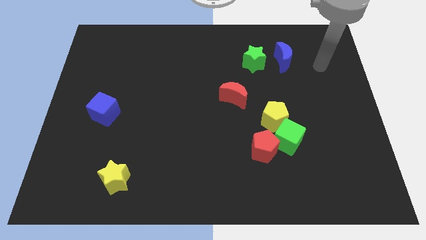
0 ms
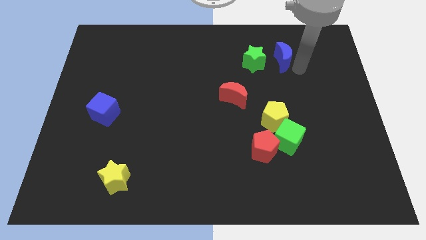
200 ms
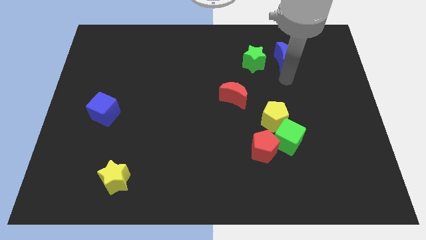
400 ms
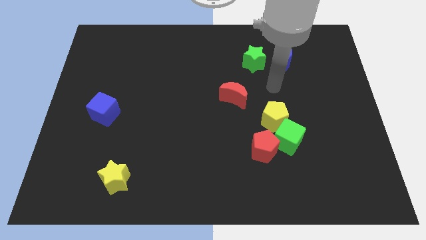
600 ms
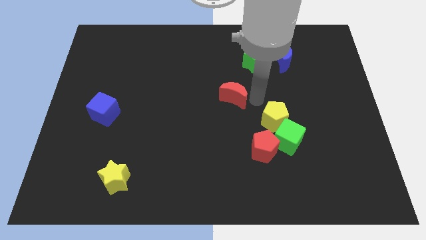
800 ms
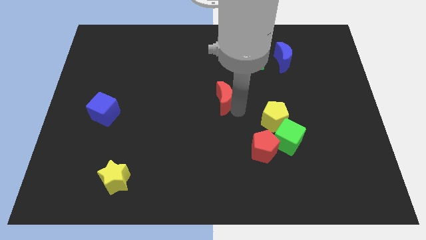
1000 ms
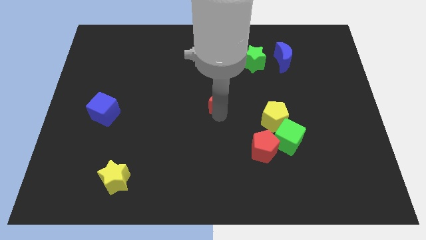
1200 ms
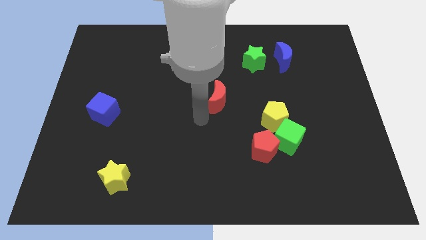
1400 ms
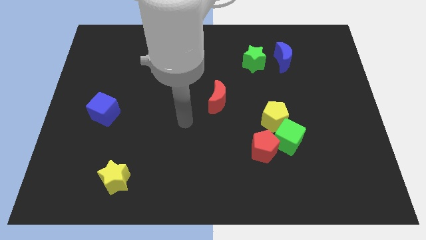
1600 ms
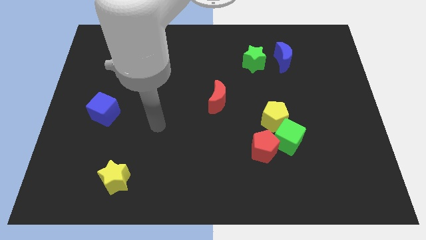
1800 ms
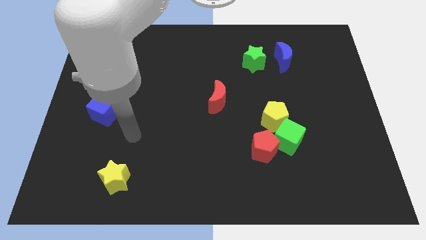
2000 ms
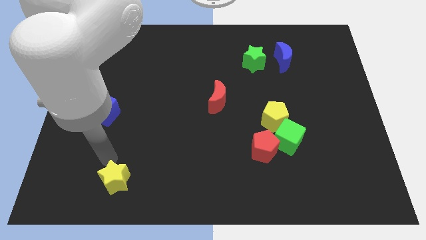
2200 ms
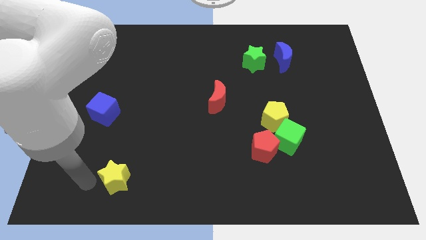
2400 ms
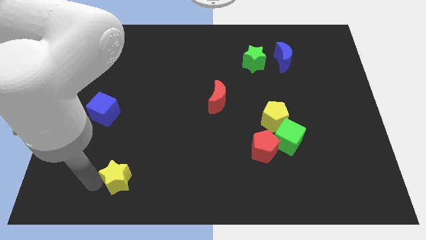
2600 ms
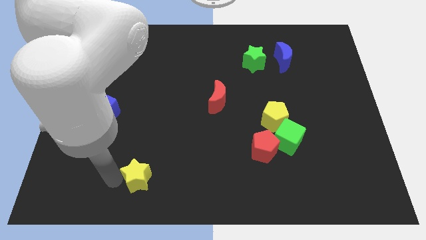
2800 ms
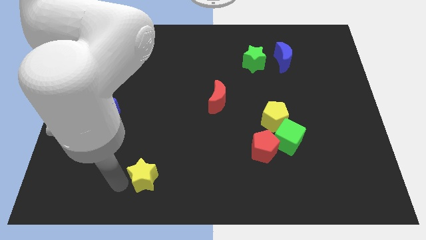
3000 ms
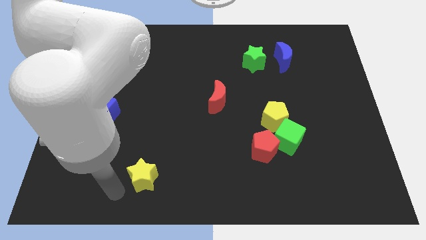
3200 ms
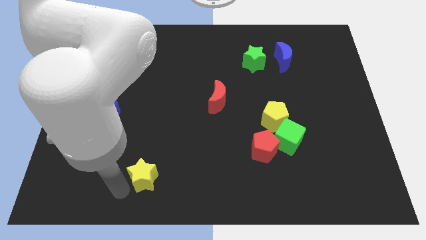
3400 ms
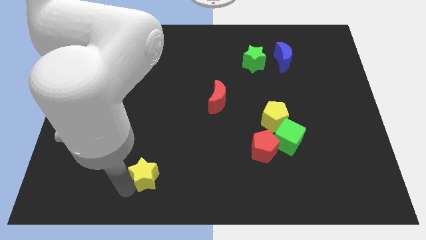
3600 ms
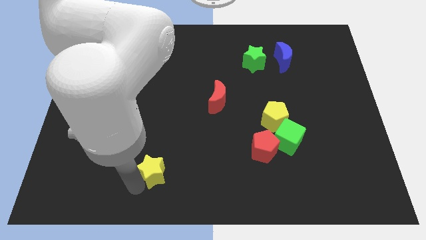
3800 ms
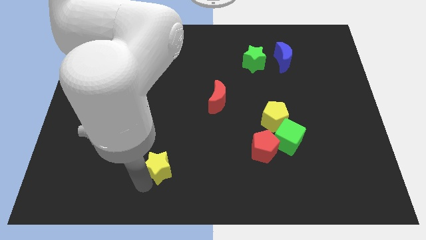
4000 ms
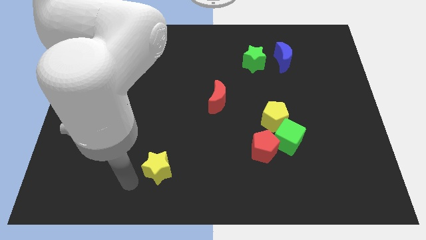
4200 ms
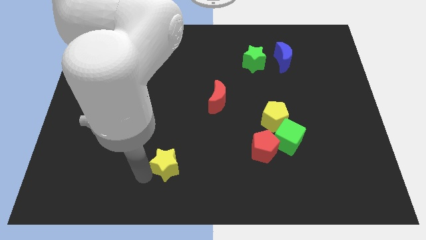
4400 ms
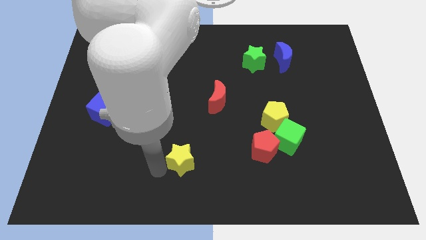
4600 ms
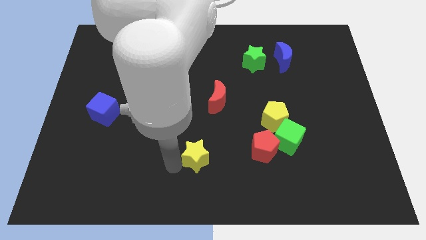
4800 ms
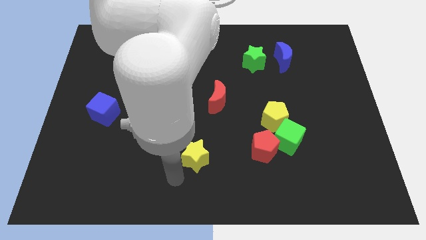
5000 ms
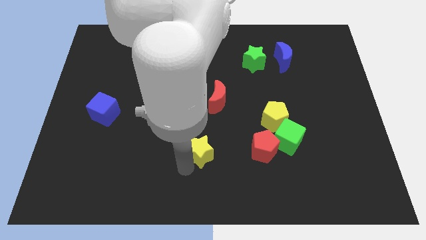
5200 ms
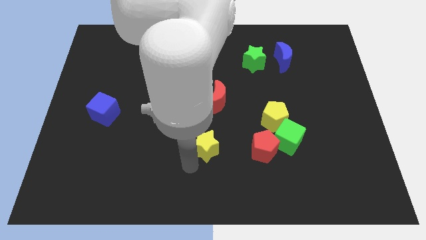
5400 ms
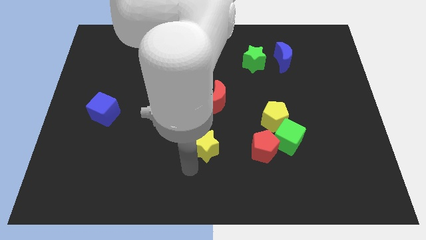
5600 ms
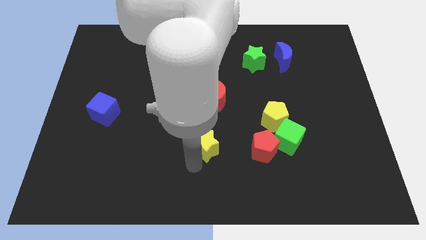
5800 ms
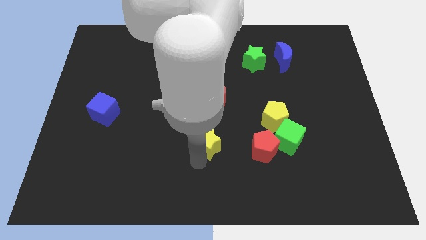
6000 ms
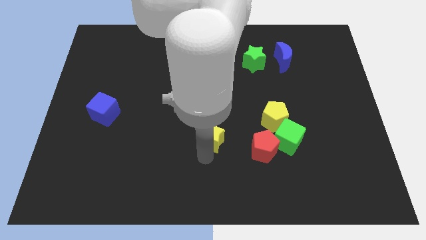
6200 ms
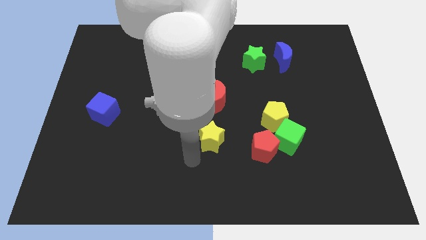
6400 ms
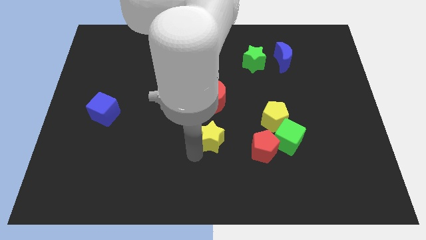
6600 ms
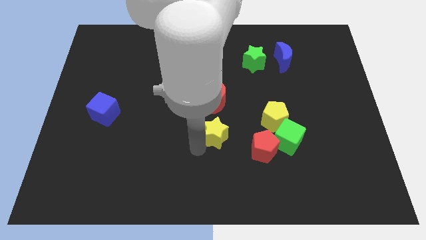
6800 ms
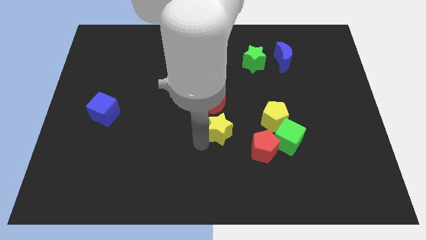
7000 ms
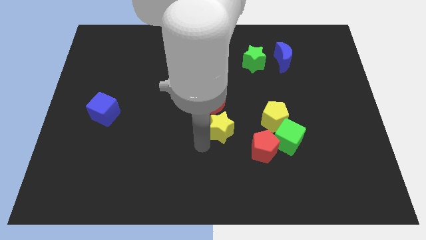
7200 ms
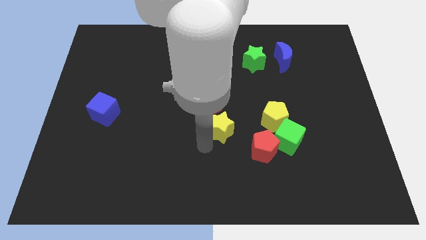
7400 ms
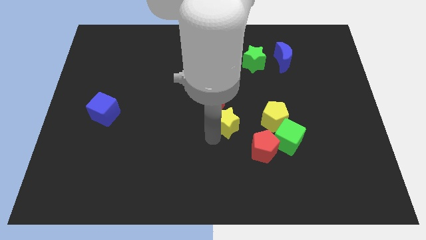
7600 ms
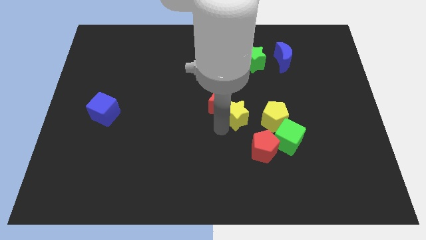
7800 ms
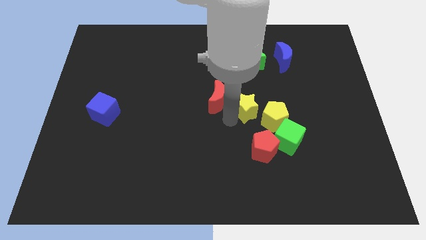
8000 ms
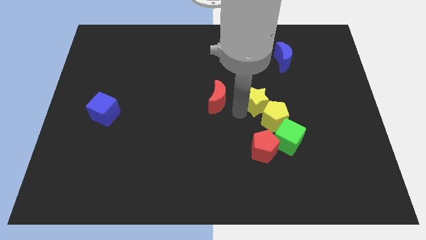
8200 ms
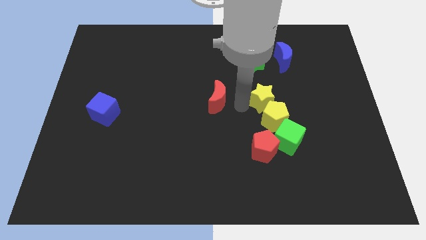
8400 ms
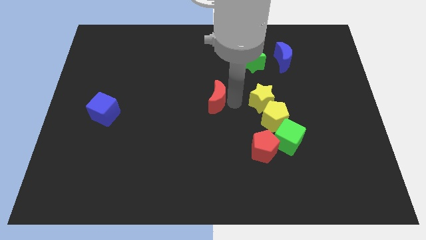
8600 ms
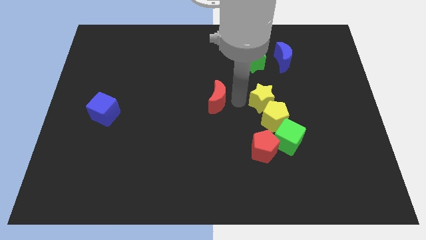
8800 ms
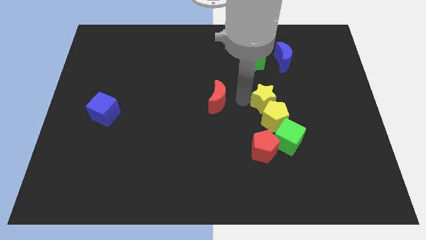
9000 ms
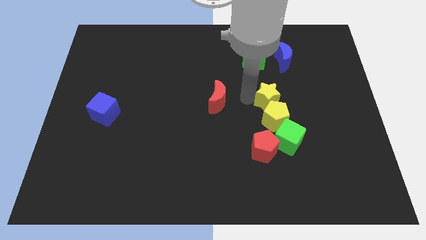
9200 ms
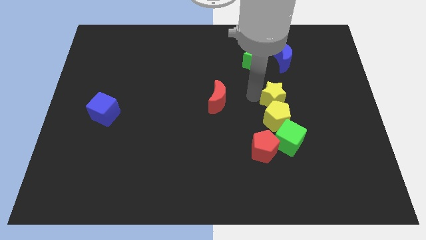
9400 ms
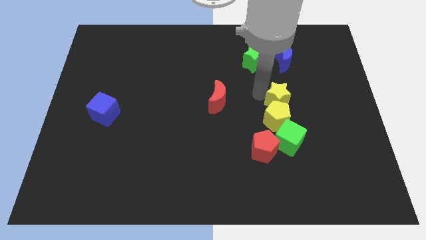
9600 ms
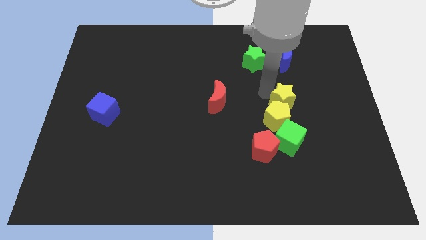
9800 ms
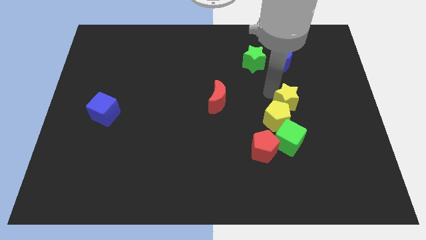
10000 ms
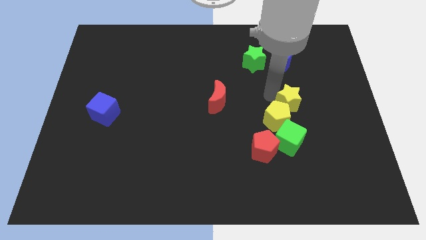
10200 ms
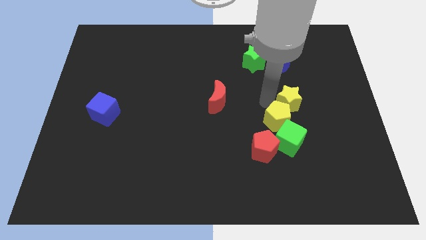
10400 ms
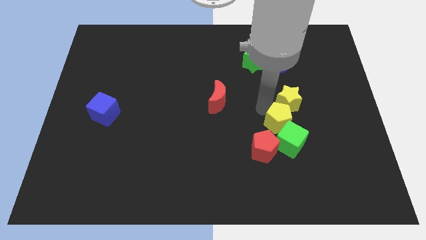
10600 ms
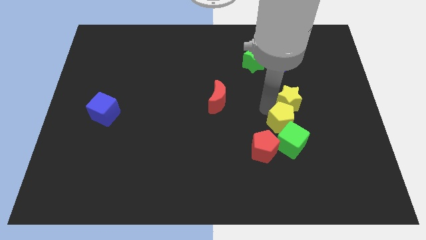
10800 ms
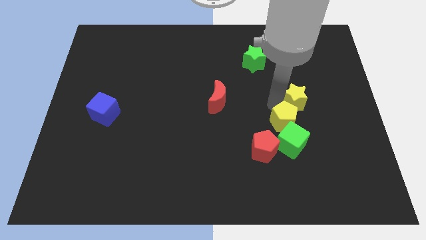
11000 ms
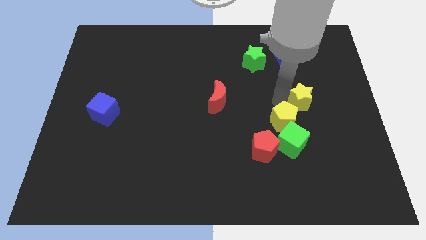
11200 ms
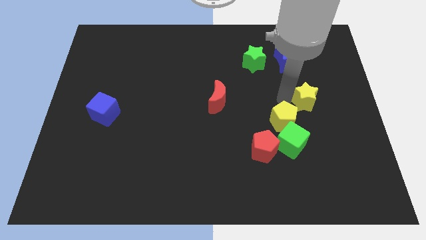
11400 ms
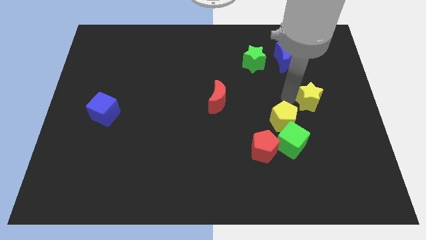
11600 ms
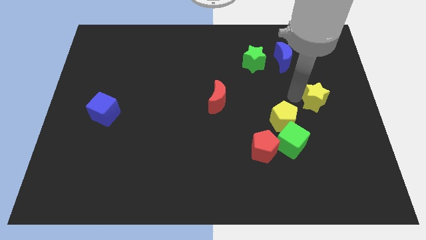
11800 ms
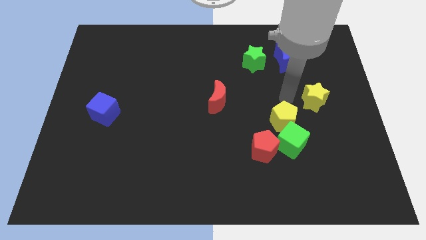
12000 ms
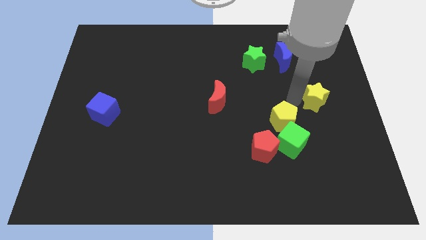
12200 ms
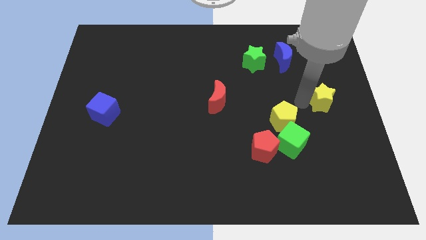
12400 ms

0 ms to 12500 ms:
put the yellow star to the right side

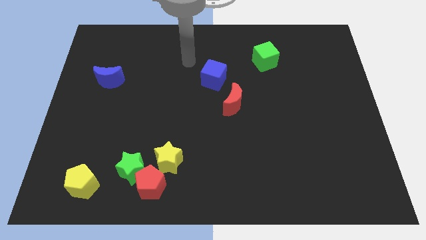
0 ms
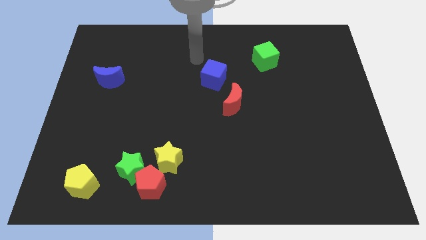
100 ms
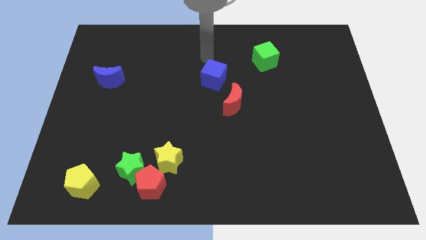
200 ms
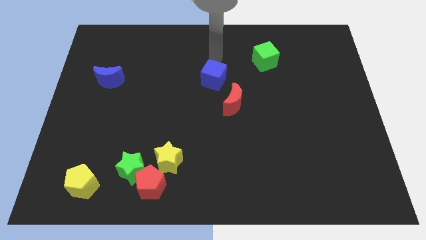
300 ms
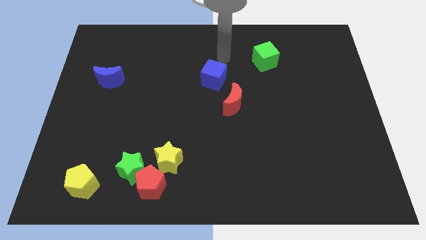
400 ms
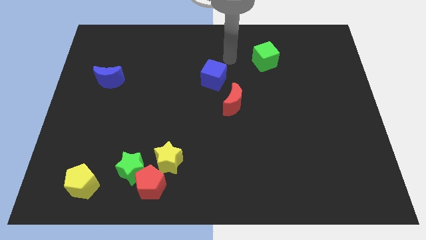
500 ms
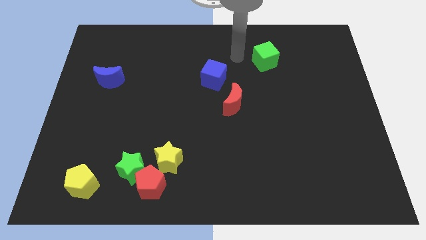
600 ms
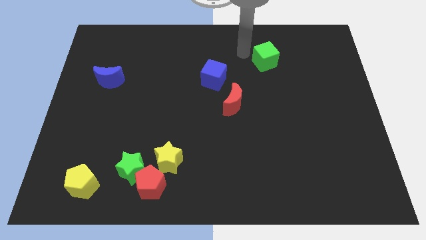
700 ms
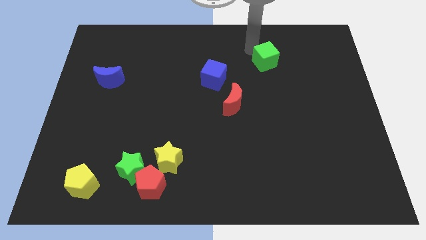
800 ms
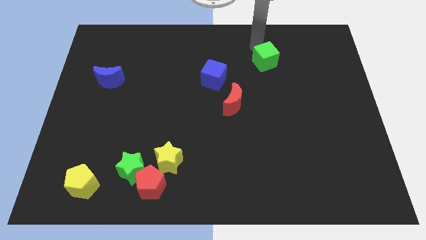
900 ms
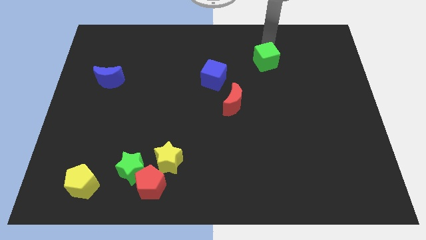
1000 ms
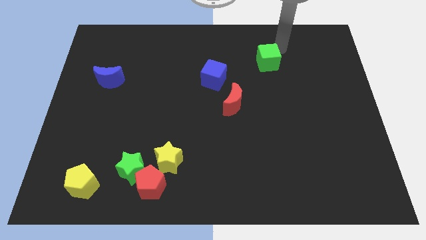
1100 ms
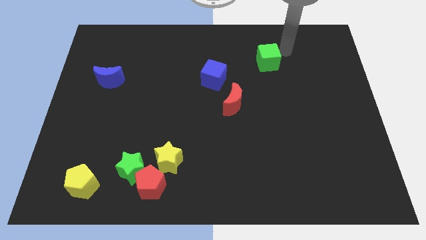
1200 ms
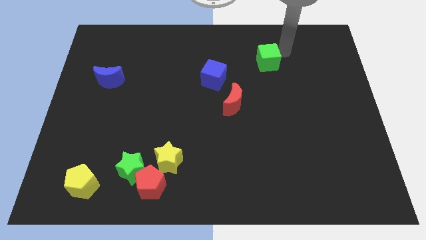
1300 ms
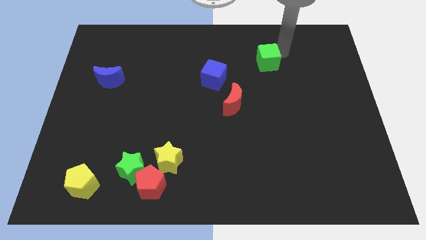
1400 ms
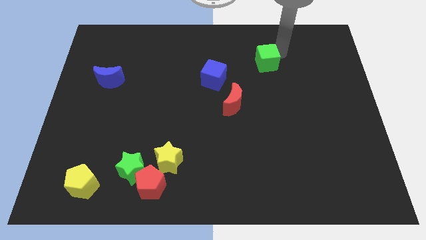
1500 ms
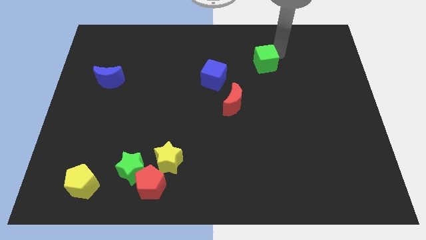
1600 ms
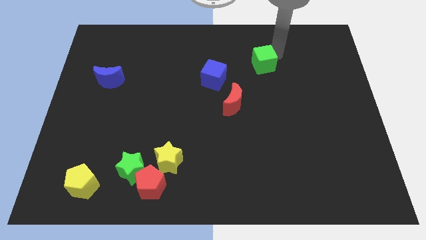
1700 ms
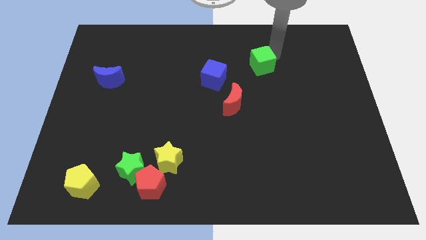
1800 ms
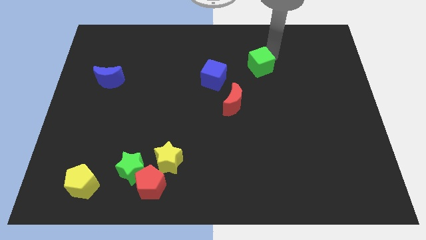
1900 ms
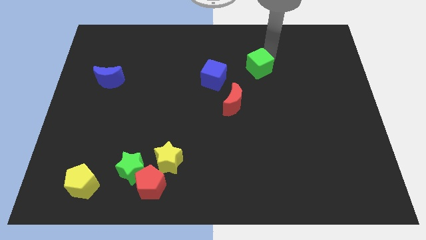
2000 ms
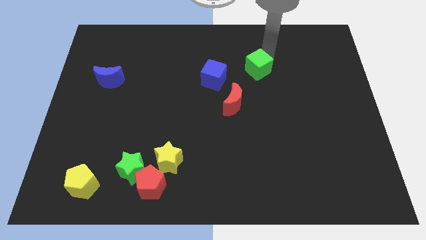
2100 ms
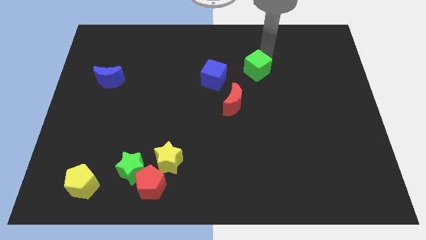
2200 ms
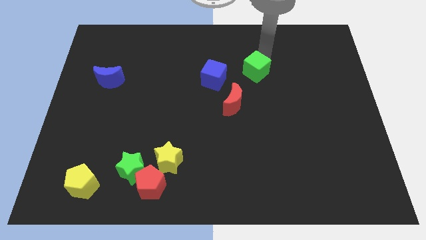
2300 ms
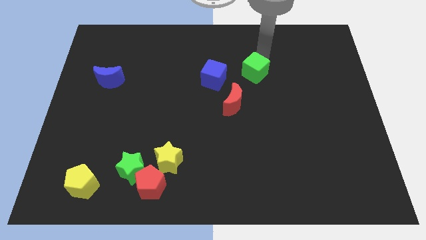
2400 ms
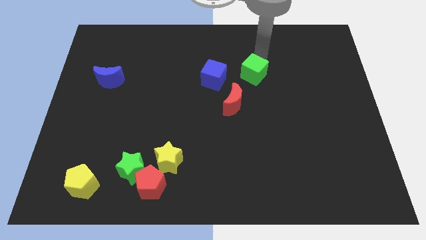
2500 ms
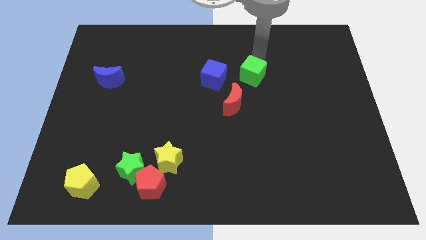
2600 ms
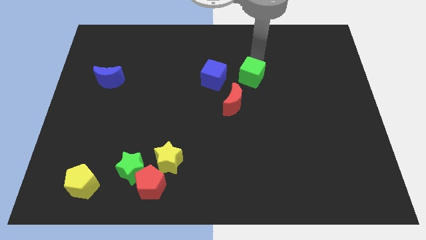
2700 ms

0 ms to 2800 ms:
slide the green cube to the center
